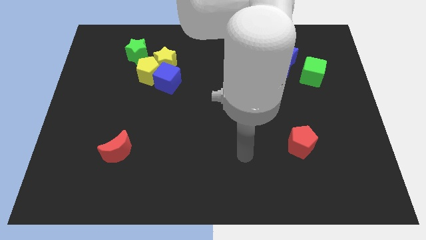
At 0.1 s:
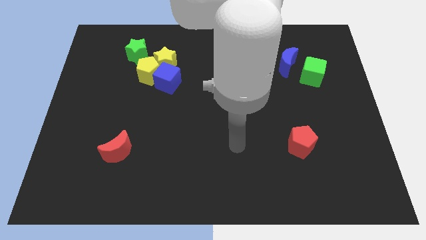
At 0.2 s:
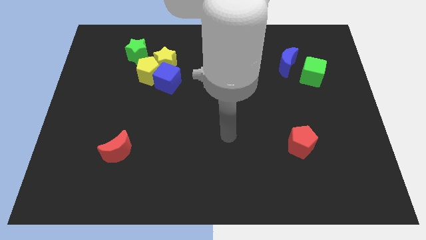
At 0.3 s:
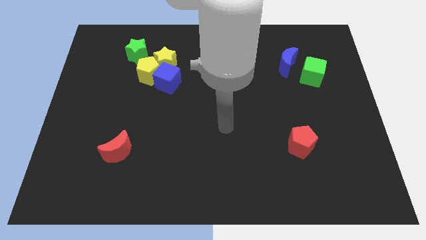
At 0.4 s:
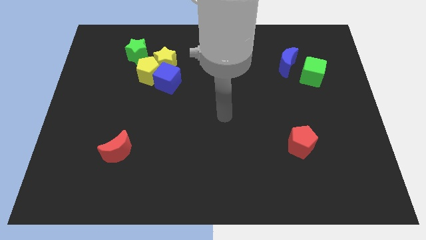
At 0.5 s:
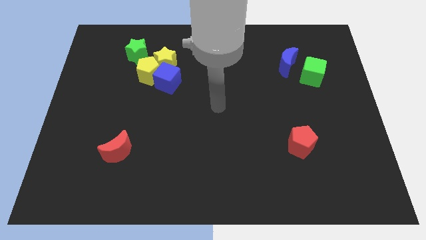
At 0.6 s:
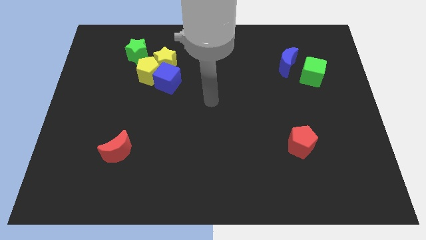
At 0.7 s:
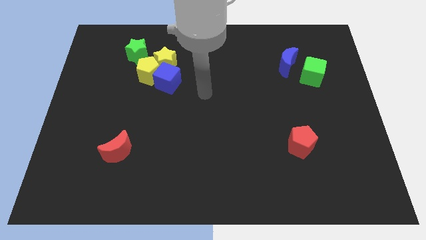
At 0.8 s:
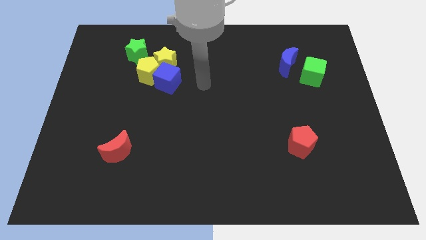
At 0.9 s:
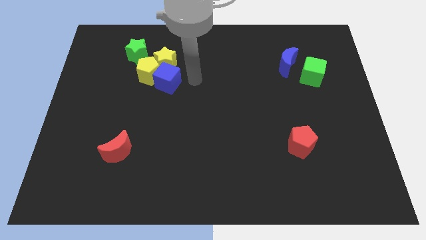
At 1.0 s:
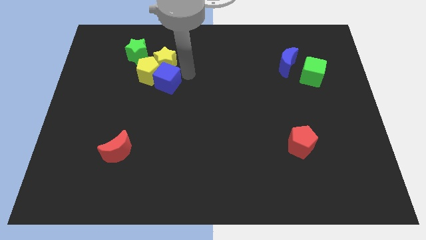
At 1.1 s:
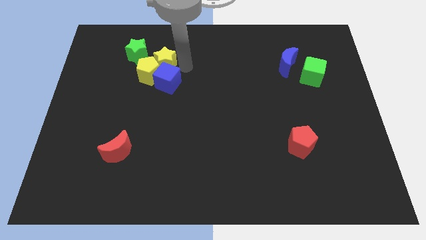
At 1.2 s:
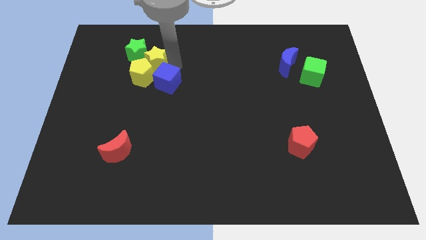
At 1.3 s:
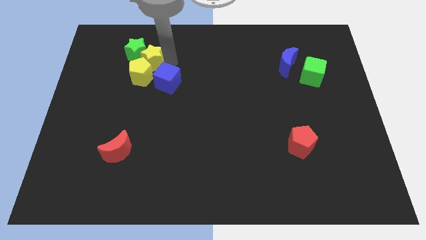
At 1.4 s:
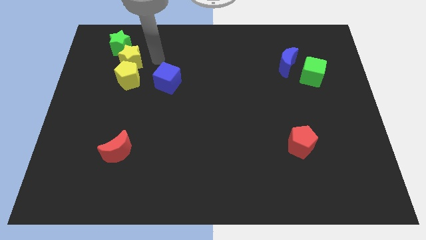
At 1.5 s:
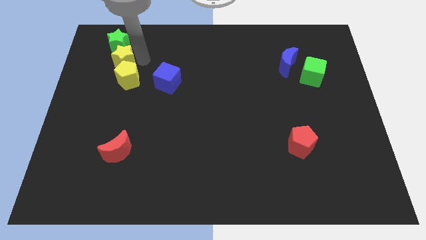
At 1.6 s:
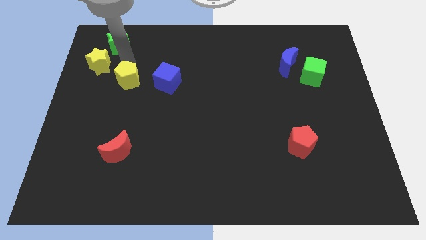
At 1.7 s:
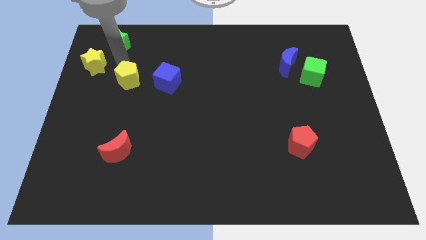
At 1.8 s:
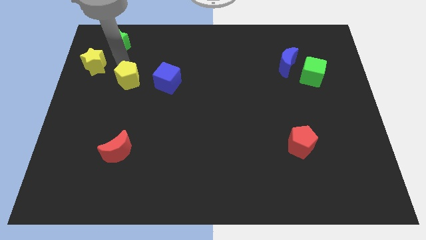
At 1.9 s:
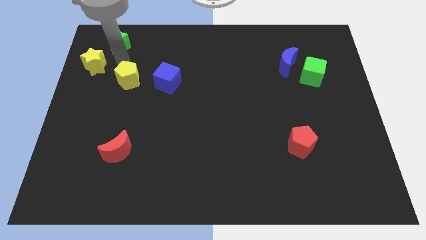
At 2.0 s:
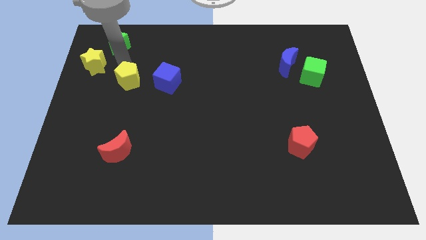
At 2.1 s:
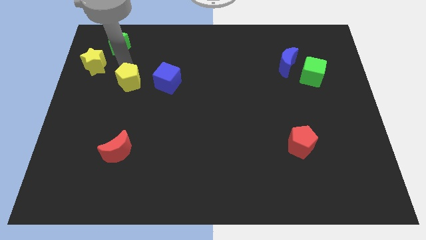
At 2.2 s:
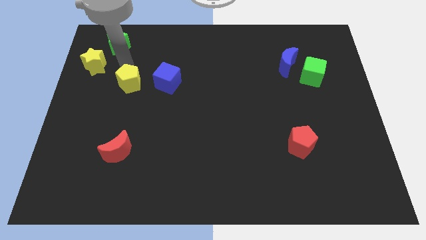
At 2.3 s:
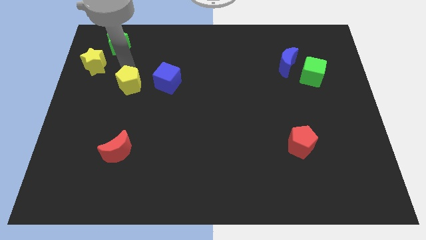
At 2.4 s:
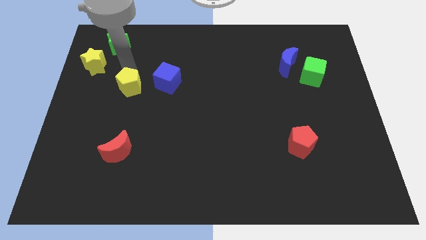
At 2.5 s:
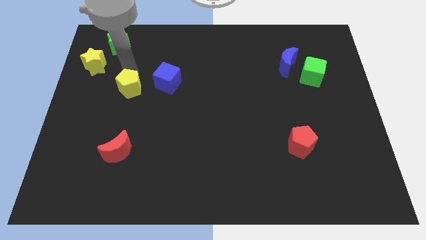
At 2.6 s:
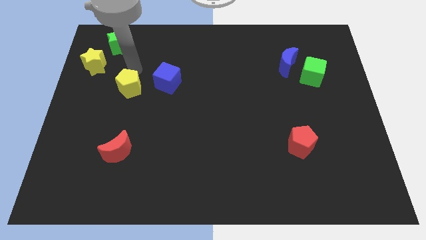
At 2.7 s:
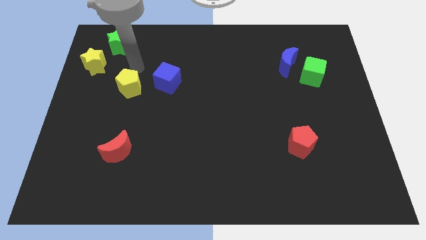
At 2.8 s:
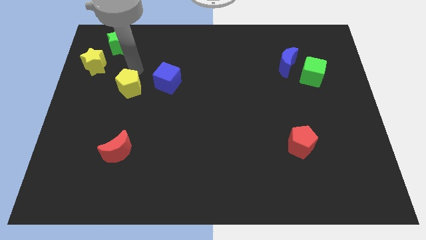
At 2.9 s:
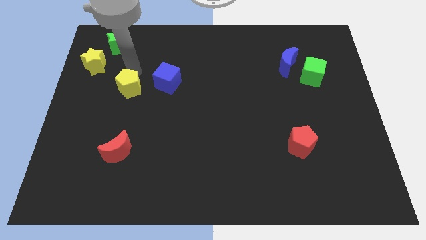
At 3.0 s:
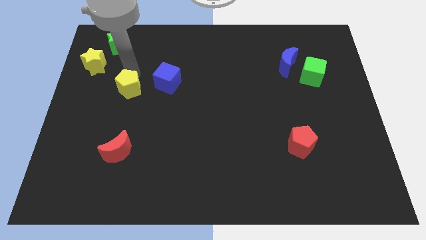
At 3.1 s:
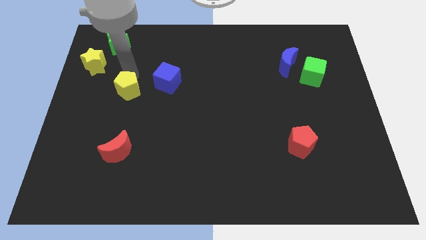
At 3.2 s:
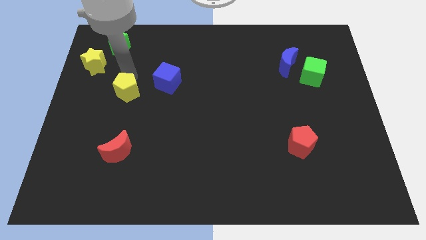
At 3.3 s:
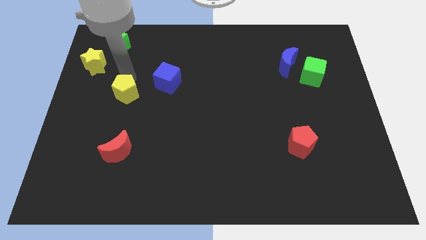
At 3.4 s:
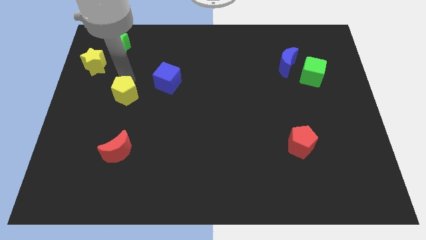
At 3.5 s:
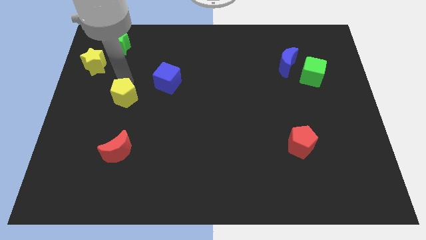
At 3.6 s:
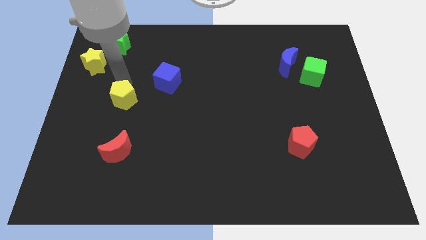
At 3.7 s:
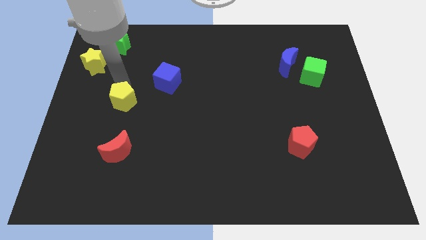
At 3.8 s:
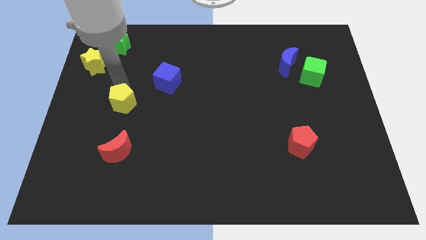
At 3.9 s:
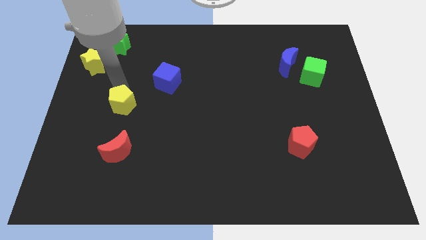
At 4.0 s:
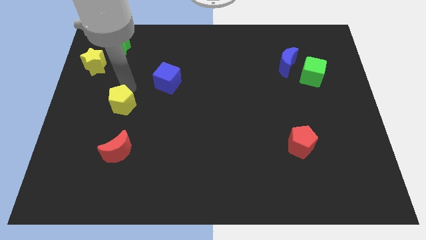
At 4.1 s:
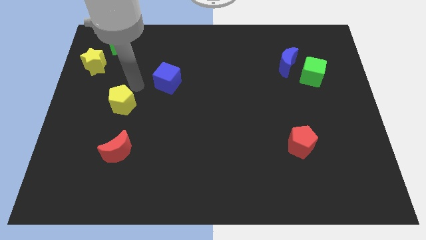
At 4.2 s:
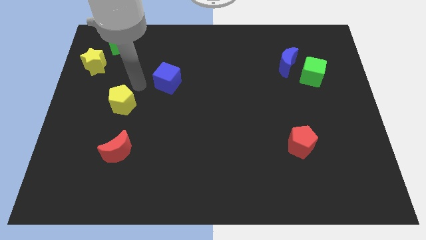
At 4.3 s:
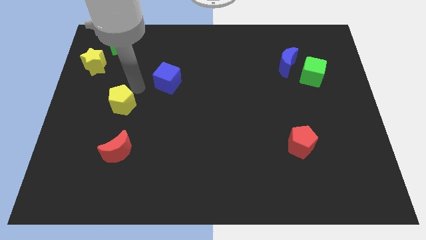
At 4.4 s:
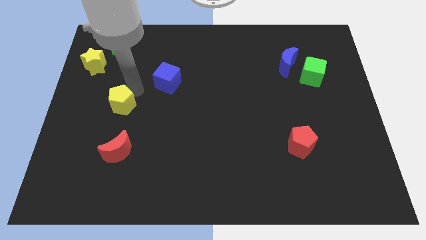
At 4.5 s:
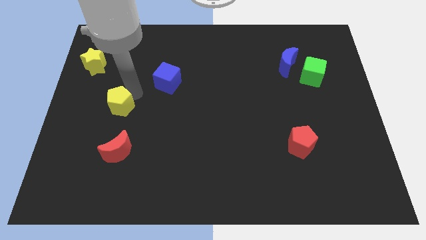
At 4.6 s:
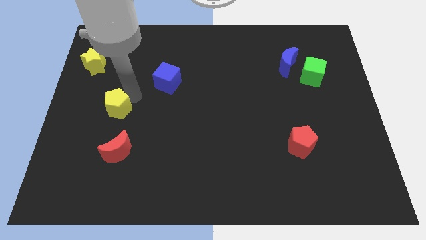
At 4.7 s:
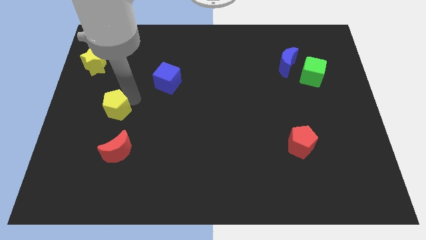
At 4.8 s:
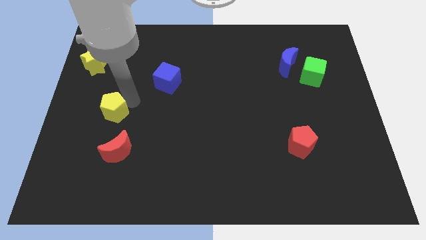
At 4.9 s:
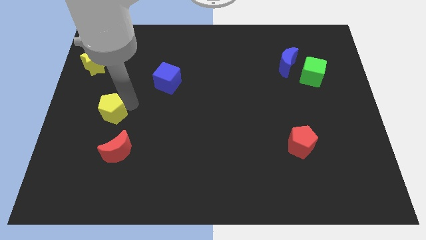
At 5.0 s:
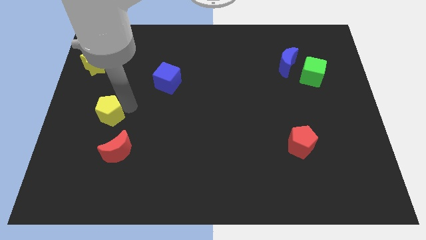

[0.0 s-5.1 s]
push the yellow pentagon diagonally up and to the left of the red moon

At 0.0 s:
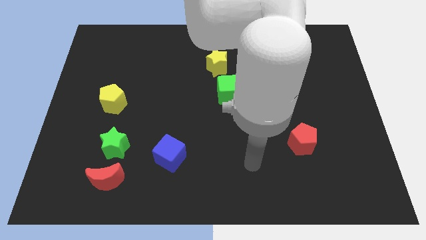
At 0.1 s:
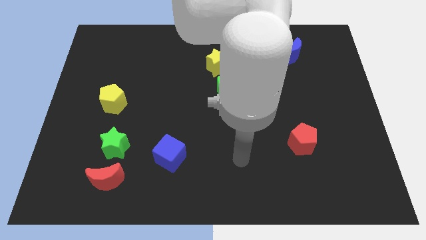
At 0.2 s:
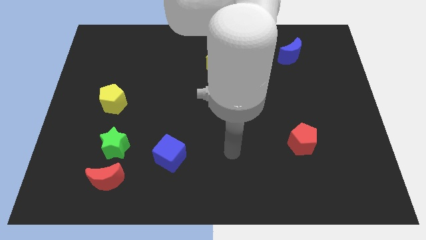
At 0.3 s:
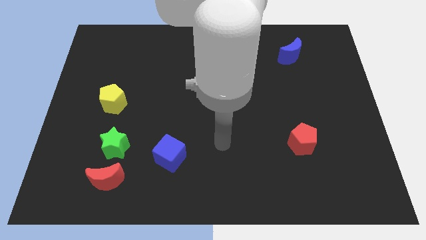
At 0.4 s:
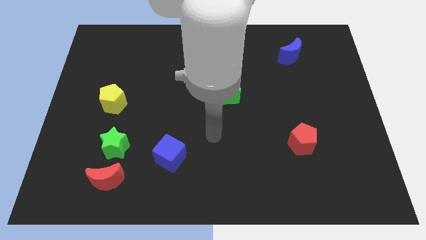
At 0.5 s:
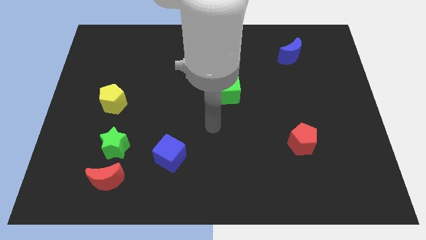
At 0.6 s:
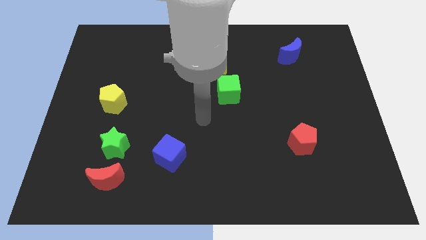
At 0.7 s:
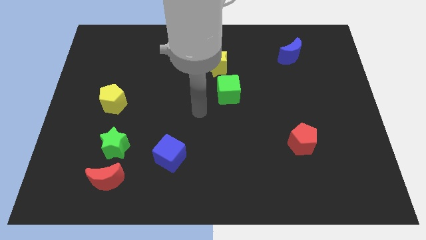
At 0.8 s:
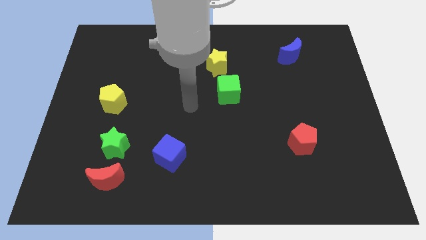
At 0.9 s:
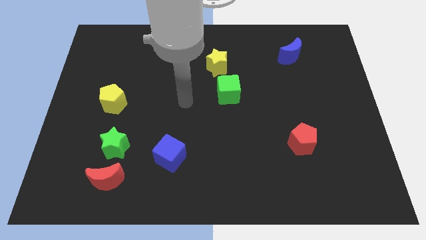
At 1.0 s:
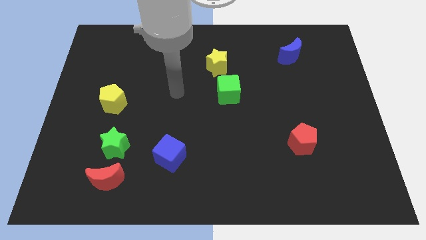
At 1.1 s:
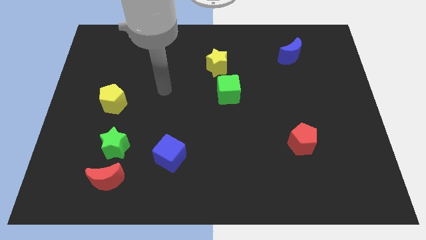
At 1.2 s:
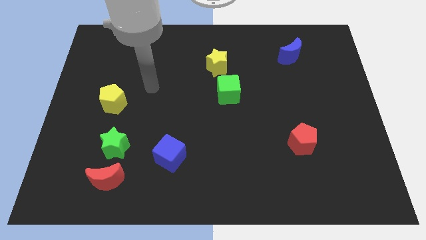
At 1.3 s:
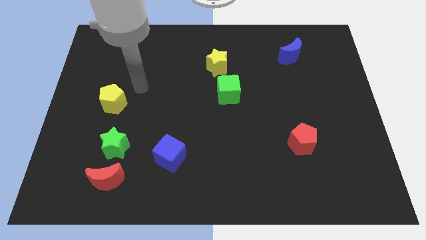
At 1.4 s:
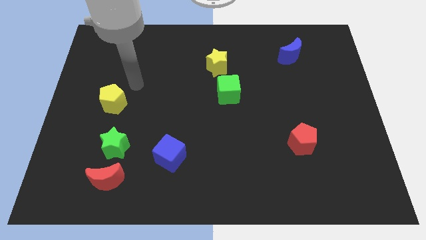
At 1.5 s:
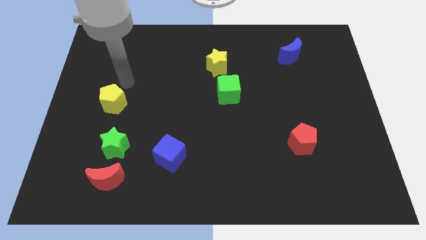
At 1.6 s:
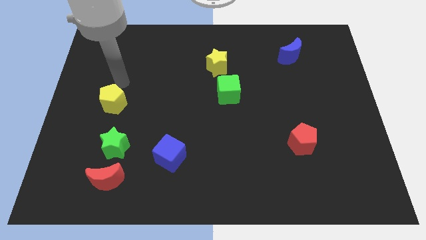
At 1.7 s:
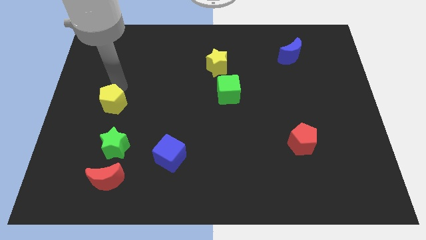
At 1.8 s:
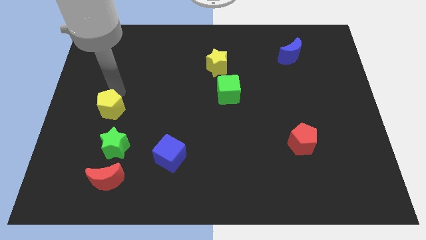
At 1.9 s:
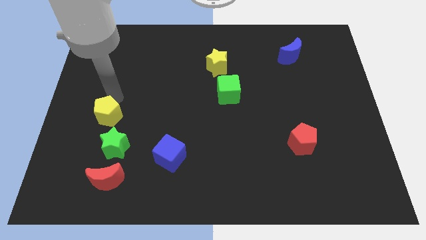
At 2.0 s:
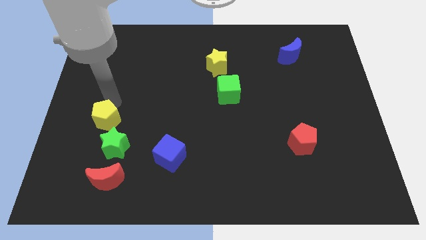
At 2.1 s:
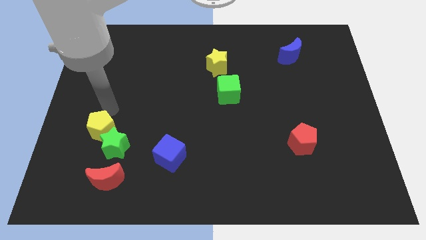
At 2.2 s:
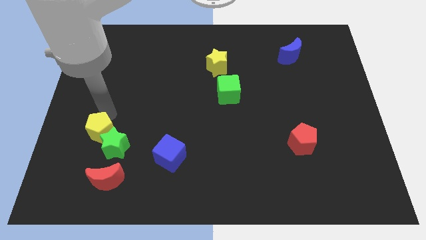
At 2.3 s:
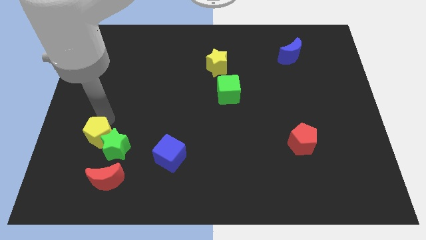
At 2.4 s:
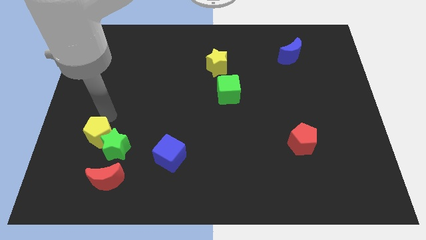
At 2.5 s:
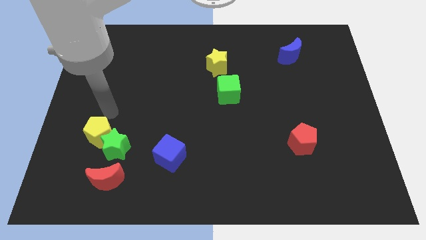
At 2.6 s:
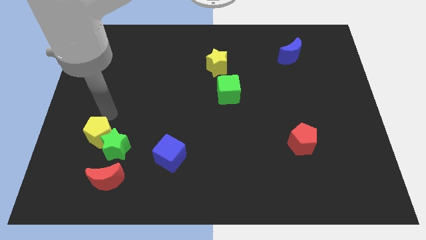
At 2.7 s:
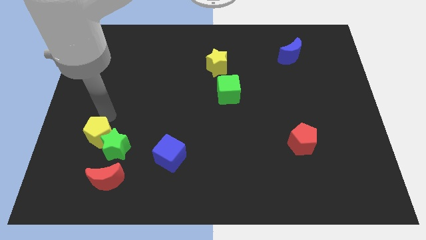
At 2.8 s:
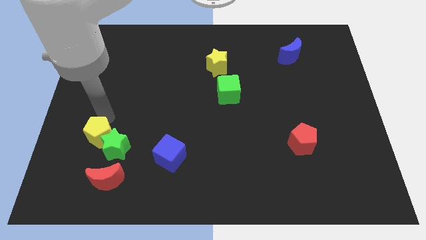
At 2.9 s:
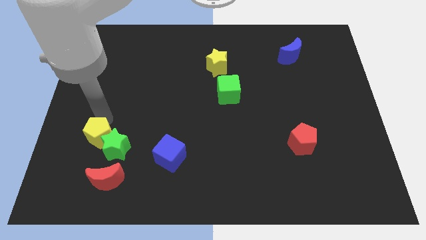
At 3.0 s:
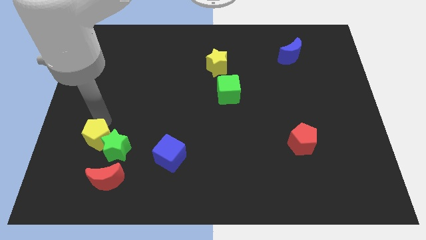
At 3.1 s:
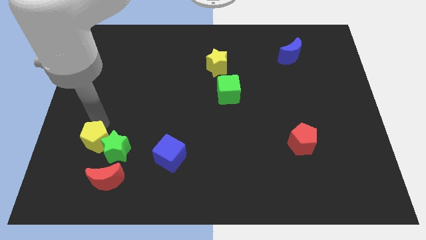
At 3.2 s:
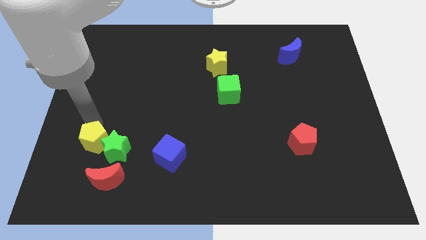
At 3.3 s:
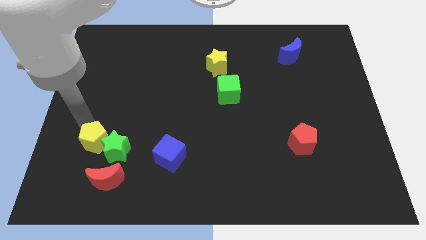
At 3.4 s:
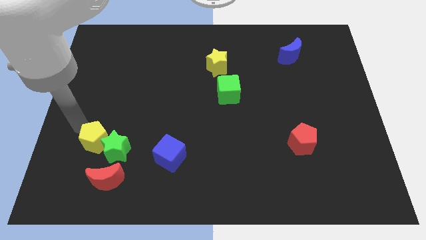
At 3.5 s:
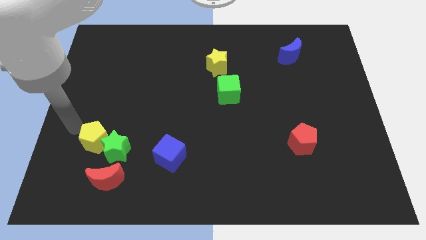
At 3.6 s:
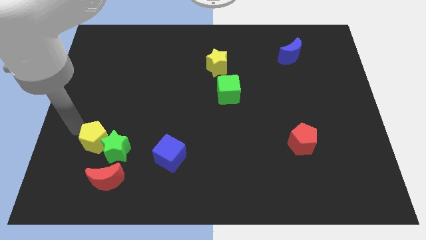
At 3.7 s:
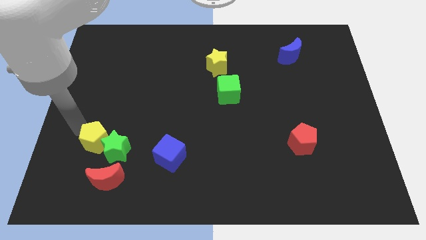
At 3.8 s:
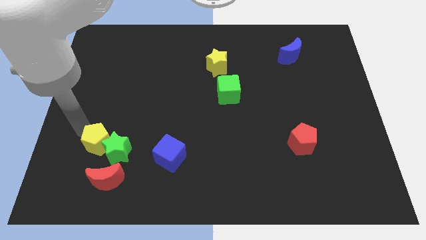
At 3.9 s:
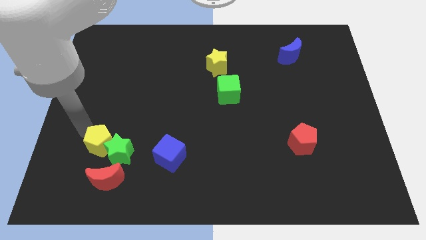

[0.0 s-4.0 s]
push the yellow pentagon left of the blue cube
